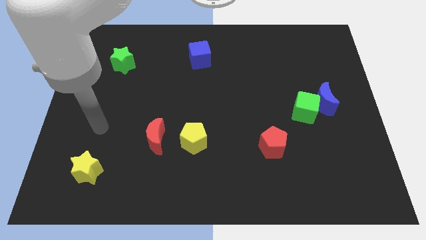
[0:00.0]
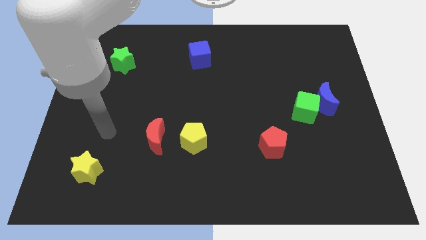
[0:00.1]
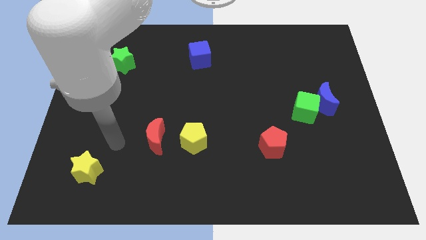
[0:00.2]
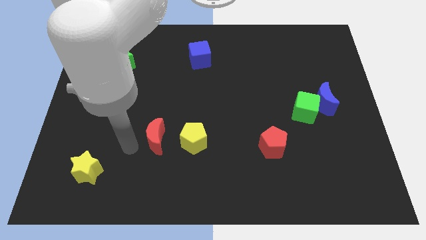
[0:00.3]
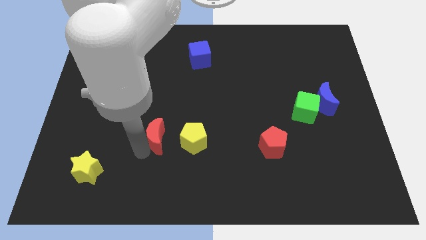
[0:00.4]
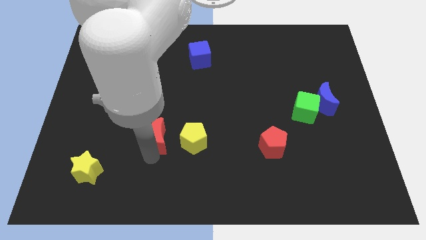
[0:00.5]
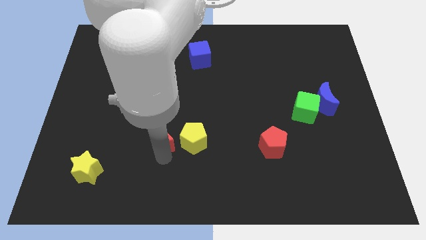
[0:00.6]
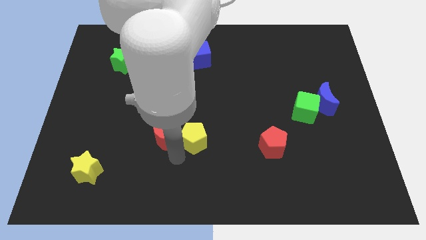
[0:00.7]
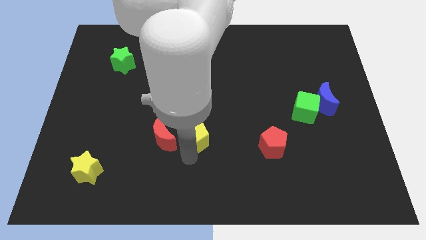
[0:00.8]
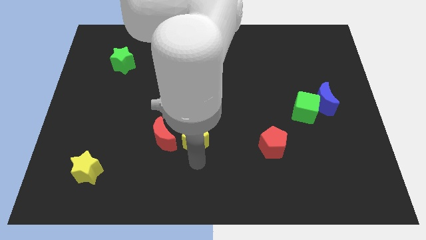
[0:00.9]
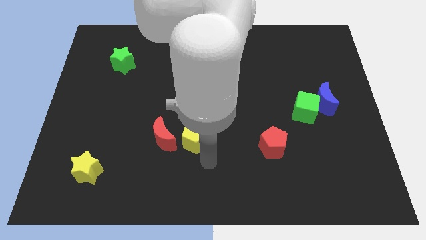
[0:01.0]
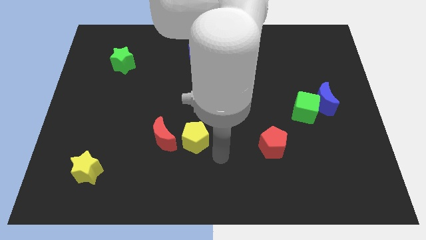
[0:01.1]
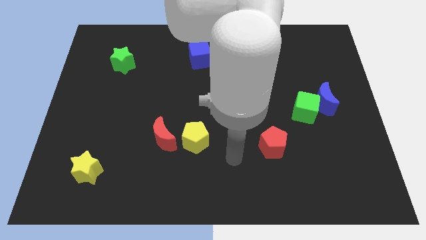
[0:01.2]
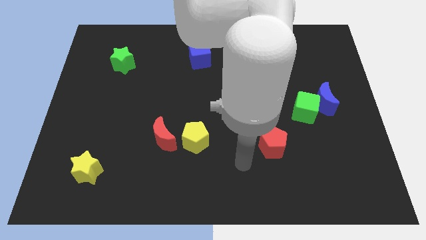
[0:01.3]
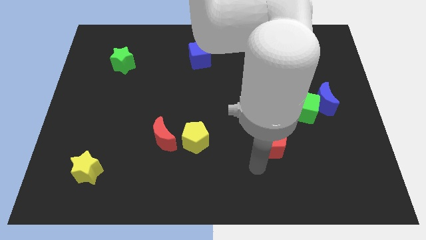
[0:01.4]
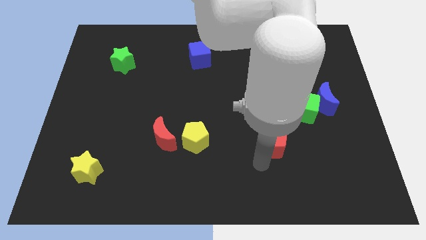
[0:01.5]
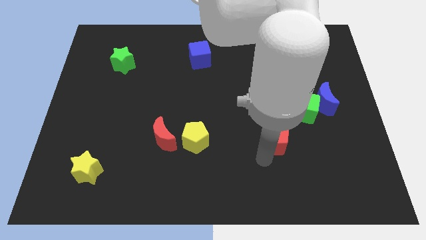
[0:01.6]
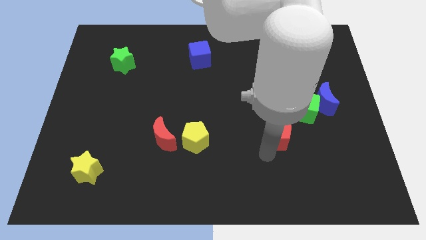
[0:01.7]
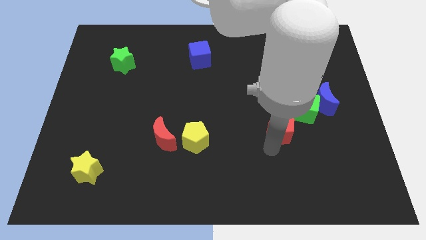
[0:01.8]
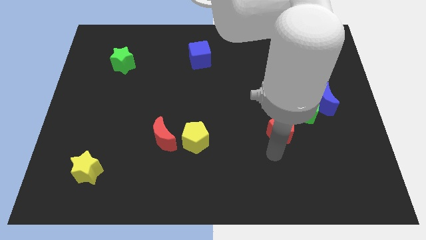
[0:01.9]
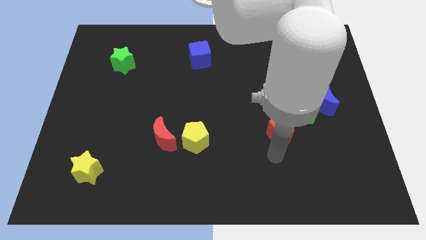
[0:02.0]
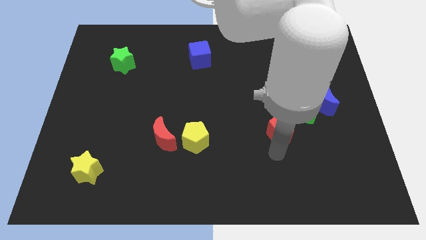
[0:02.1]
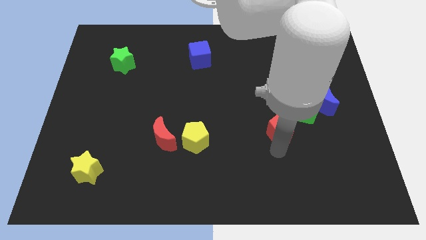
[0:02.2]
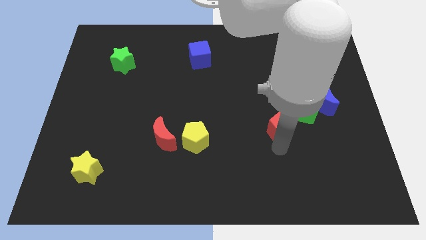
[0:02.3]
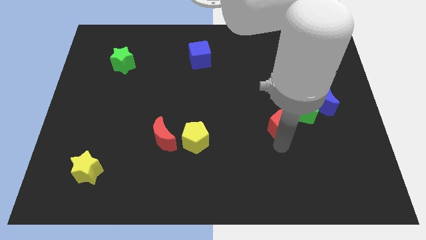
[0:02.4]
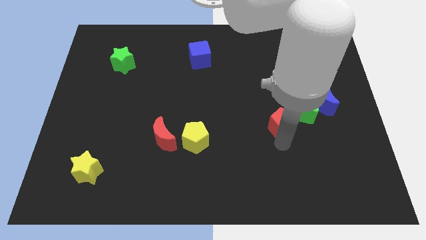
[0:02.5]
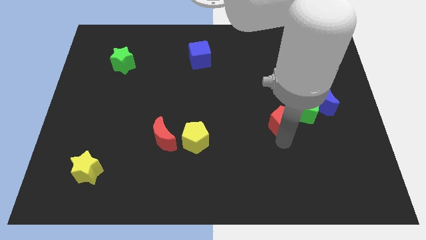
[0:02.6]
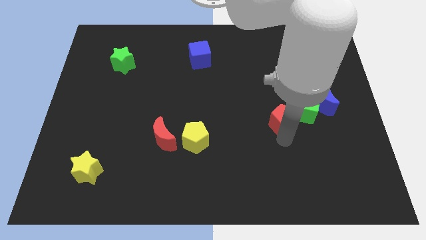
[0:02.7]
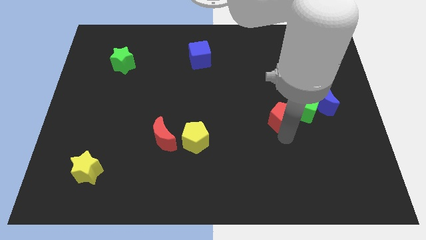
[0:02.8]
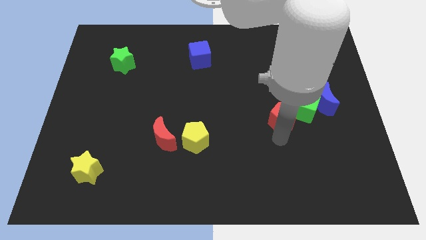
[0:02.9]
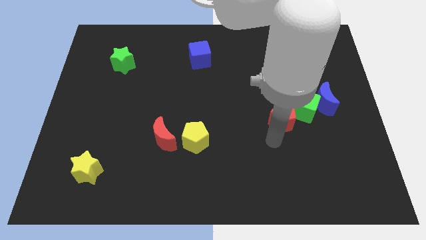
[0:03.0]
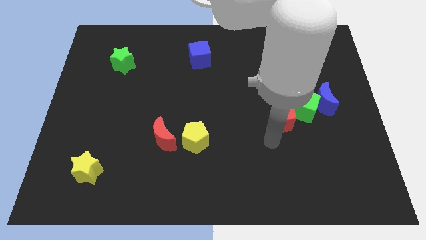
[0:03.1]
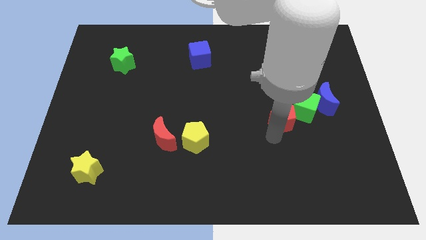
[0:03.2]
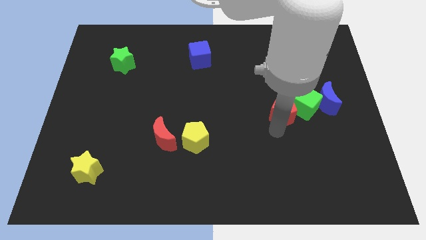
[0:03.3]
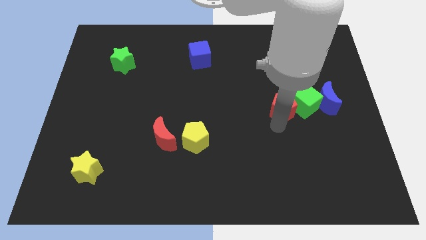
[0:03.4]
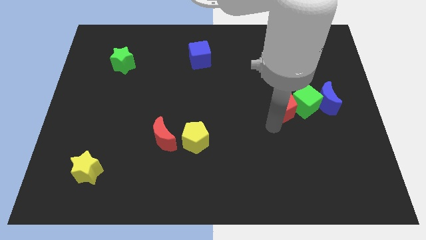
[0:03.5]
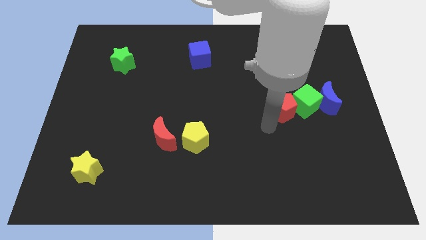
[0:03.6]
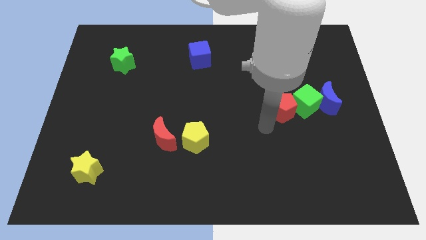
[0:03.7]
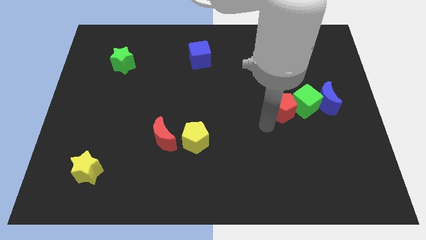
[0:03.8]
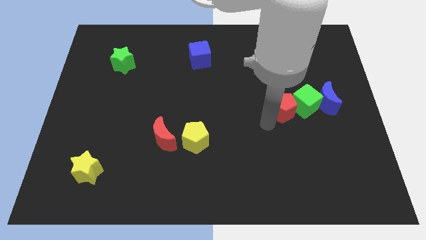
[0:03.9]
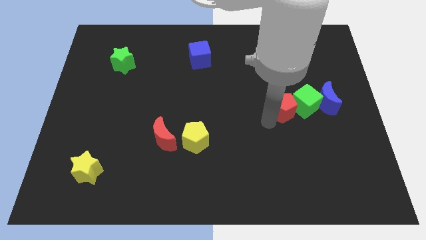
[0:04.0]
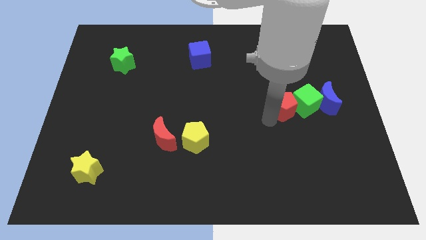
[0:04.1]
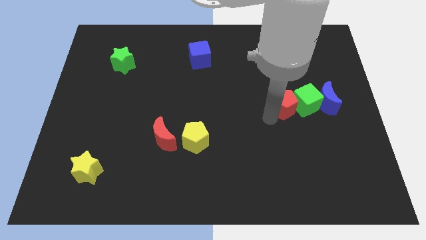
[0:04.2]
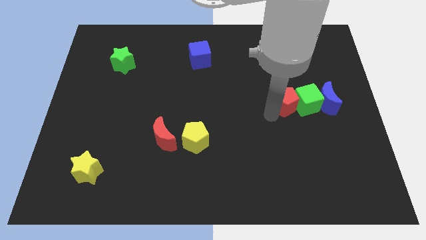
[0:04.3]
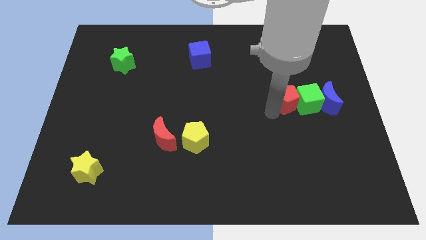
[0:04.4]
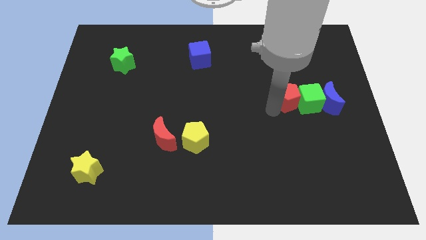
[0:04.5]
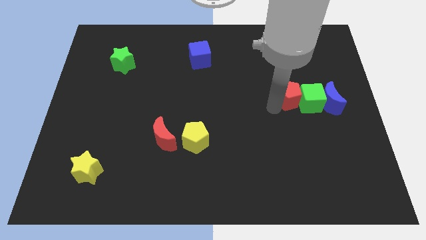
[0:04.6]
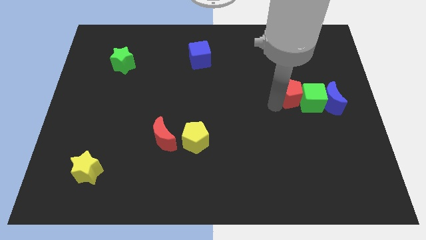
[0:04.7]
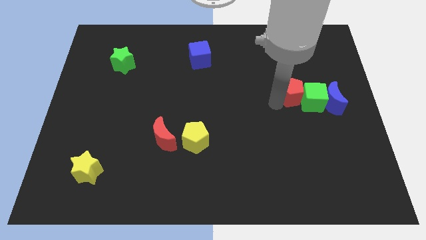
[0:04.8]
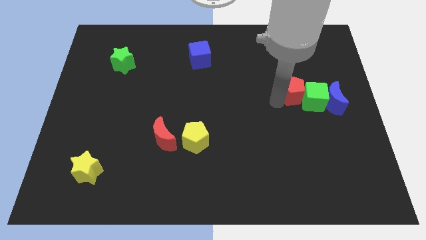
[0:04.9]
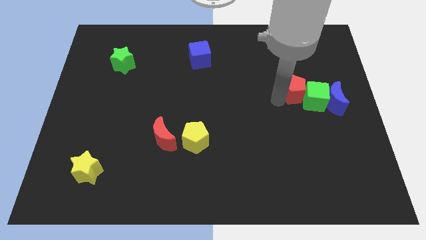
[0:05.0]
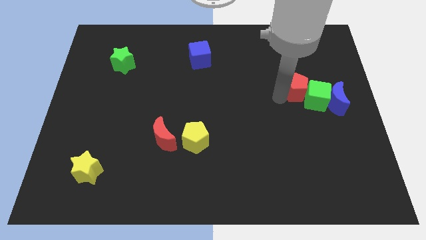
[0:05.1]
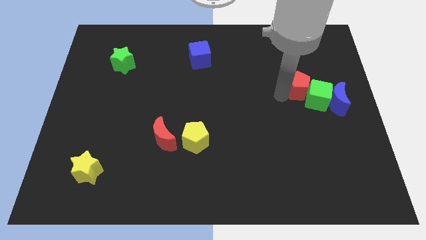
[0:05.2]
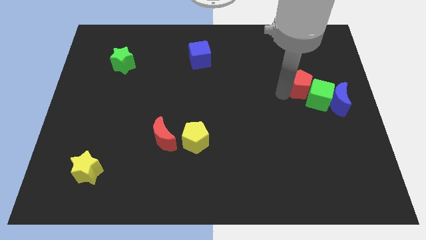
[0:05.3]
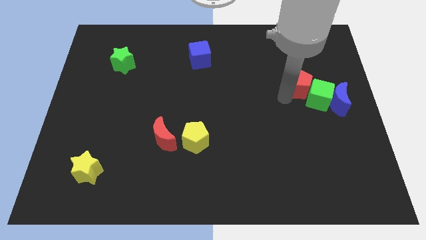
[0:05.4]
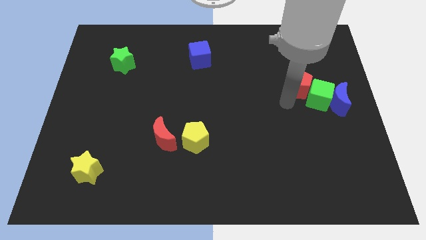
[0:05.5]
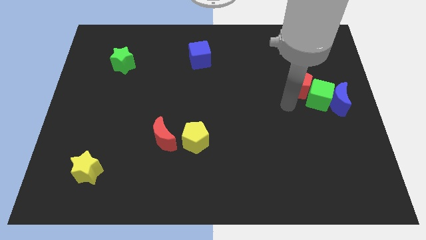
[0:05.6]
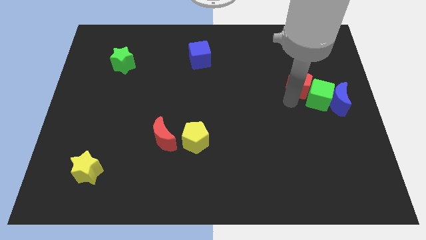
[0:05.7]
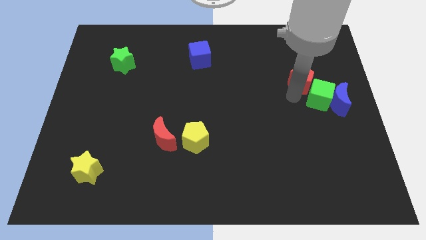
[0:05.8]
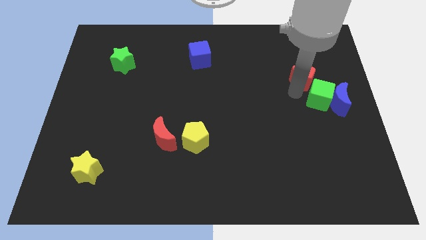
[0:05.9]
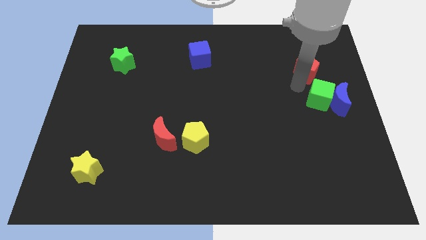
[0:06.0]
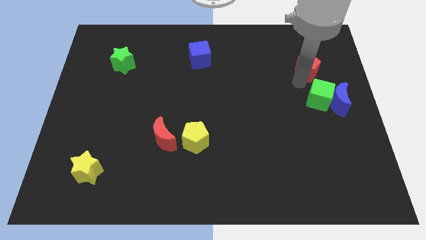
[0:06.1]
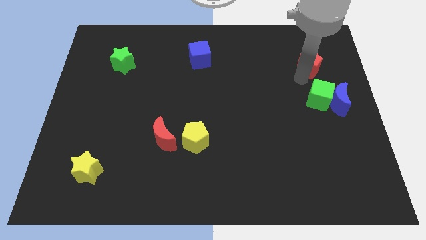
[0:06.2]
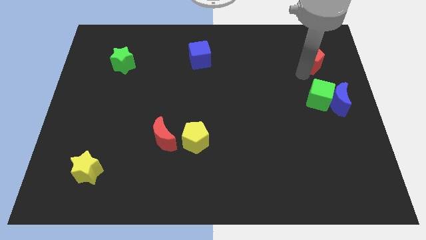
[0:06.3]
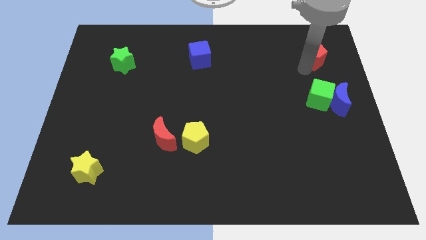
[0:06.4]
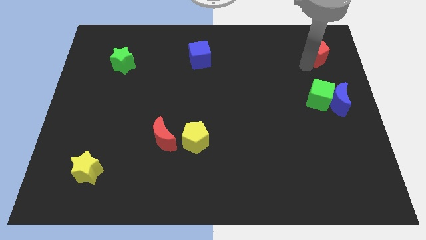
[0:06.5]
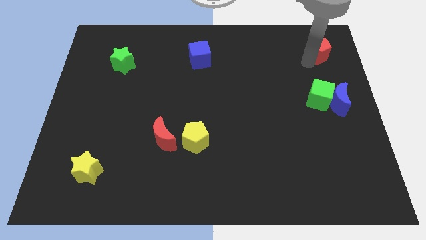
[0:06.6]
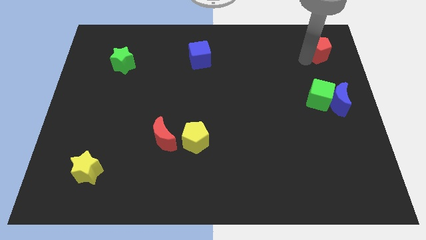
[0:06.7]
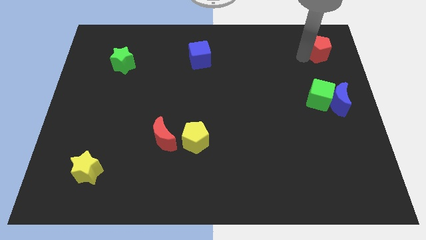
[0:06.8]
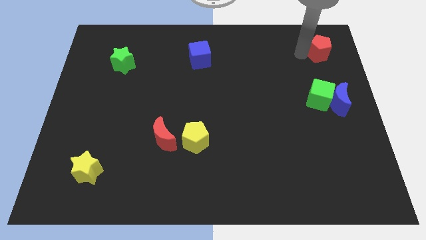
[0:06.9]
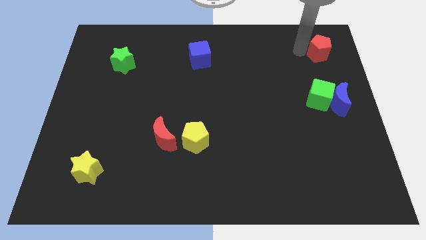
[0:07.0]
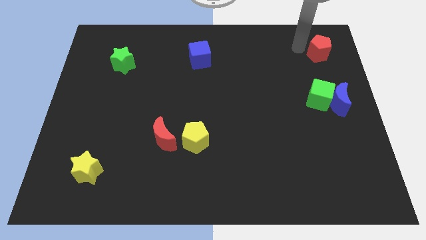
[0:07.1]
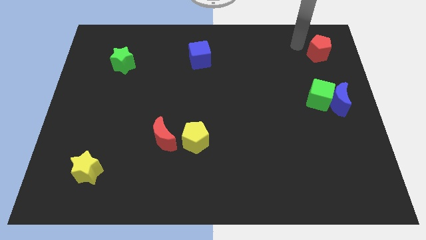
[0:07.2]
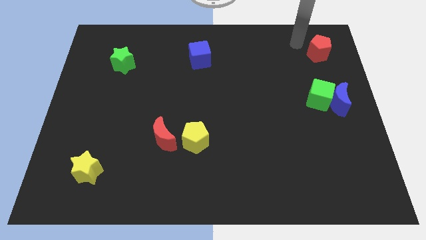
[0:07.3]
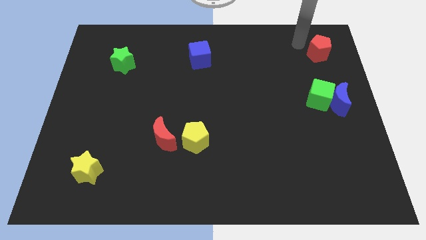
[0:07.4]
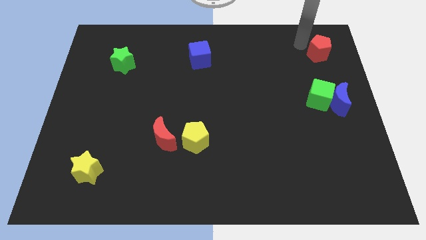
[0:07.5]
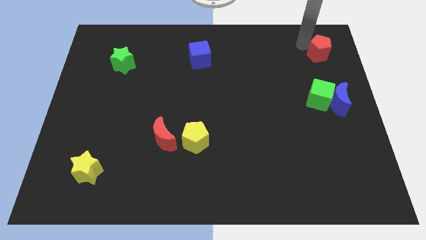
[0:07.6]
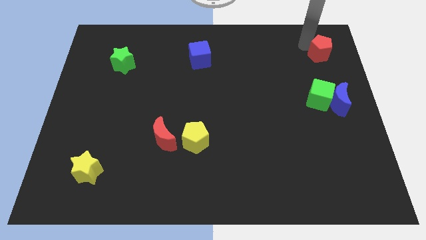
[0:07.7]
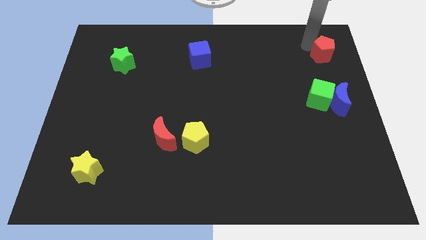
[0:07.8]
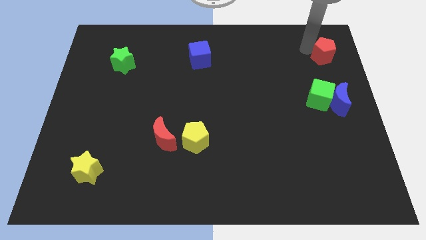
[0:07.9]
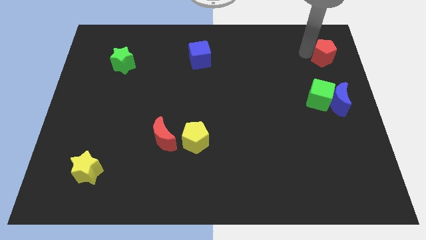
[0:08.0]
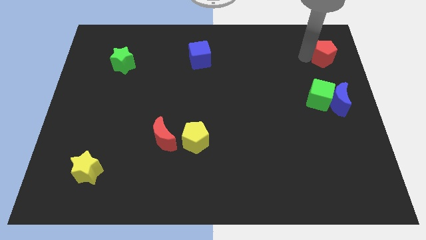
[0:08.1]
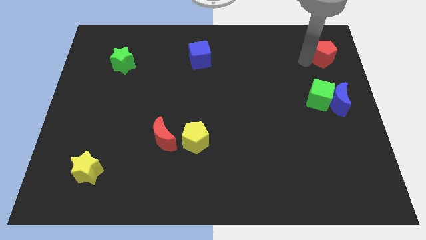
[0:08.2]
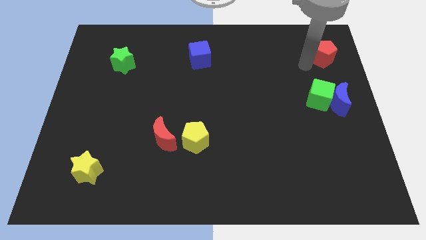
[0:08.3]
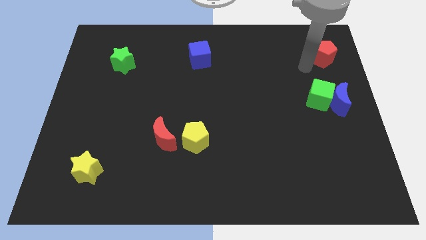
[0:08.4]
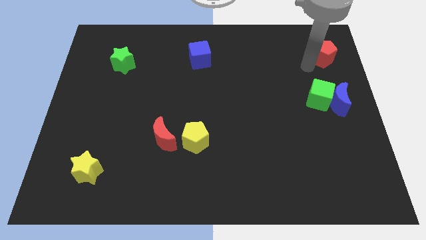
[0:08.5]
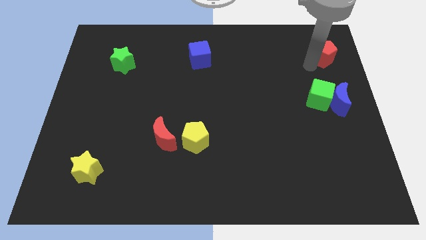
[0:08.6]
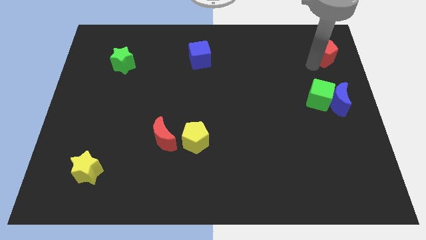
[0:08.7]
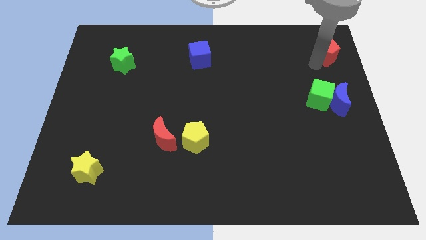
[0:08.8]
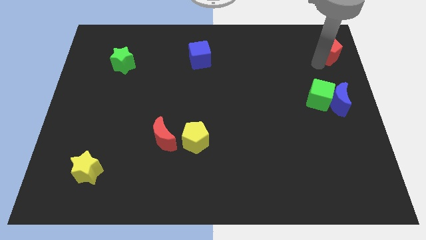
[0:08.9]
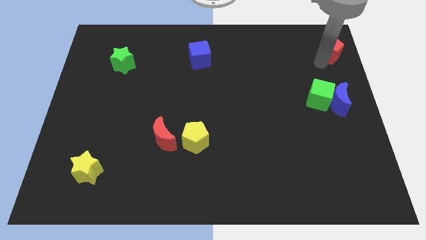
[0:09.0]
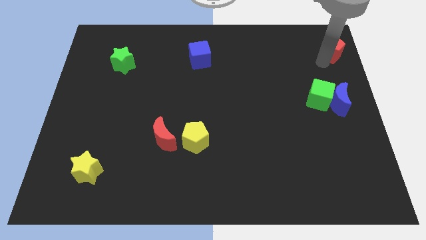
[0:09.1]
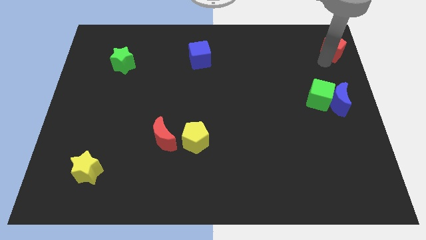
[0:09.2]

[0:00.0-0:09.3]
put the red pentagon to the top right corner
